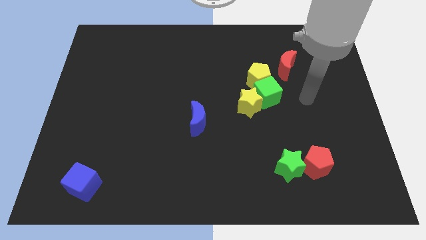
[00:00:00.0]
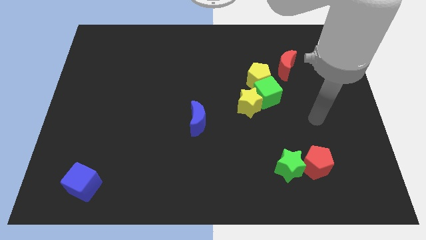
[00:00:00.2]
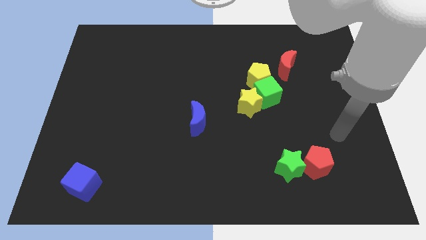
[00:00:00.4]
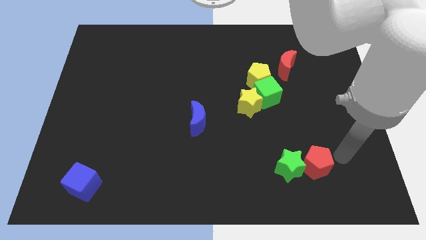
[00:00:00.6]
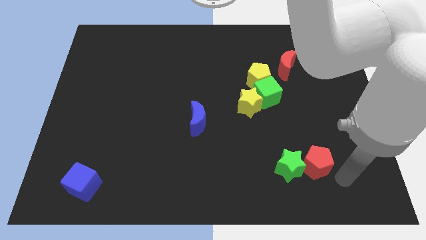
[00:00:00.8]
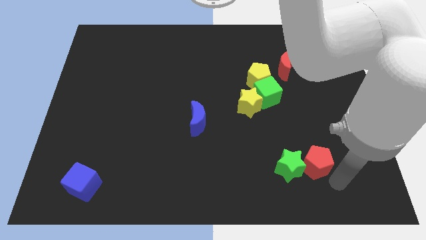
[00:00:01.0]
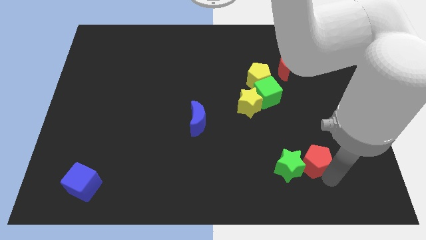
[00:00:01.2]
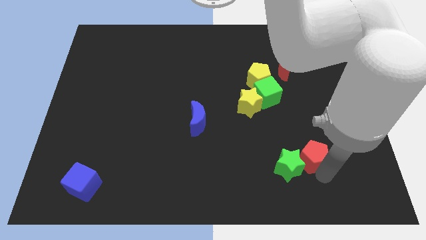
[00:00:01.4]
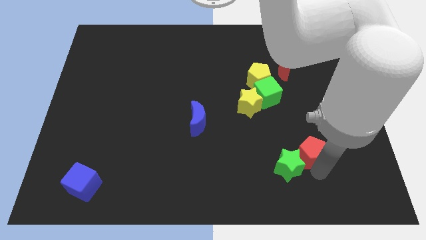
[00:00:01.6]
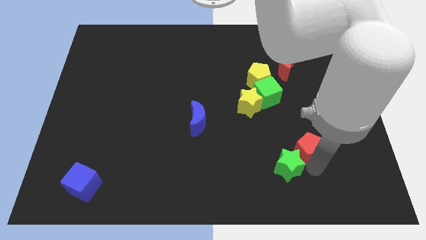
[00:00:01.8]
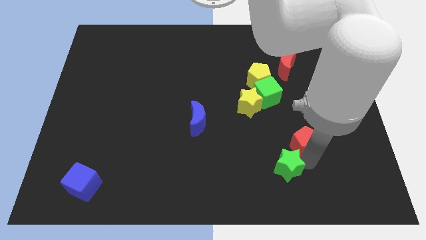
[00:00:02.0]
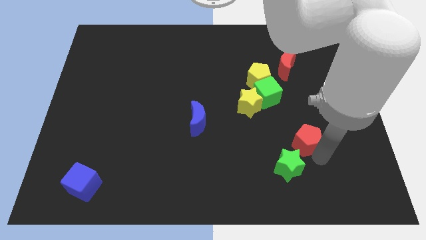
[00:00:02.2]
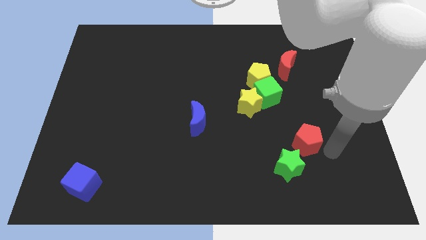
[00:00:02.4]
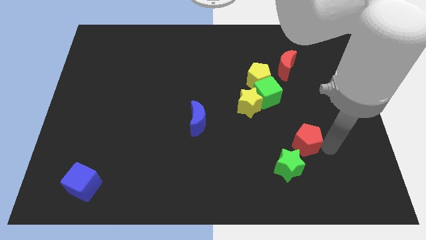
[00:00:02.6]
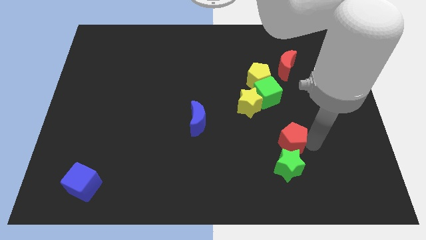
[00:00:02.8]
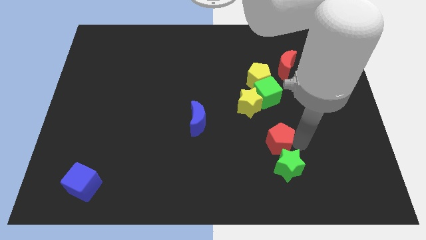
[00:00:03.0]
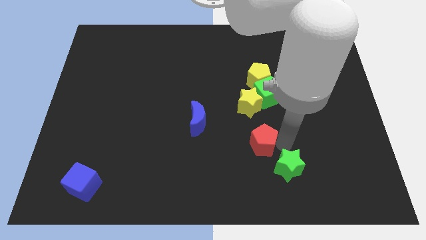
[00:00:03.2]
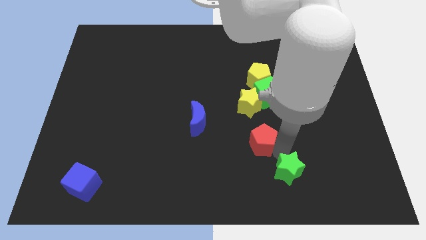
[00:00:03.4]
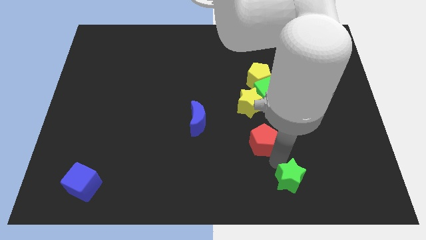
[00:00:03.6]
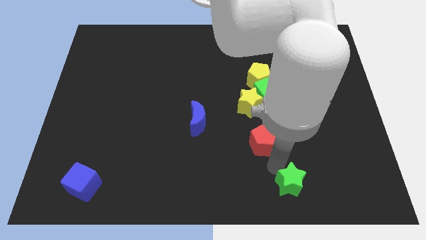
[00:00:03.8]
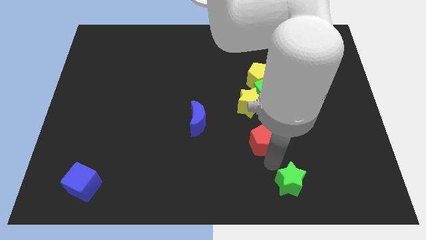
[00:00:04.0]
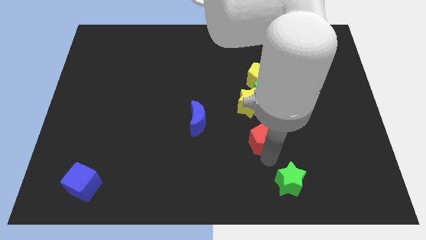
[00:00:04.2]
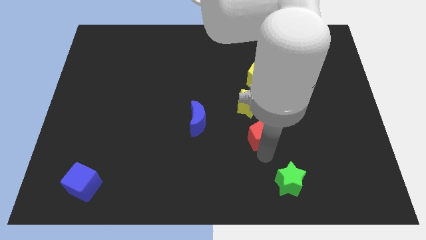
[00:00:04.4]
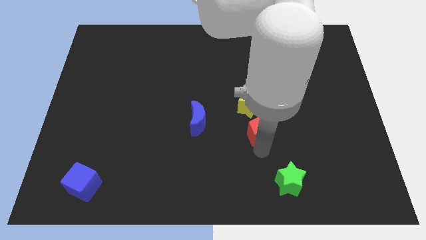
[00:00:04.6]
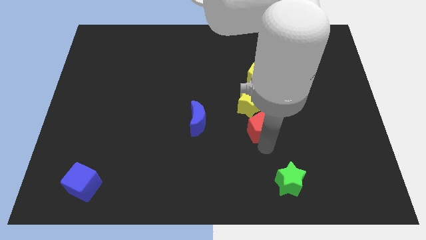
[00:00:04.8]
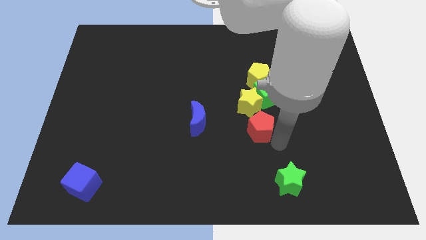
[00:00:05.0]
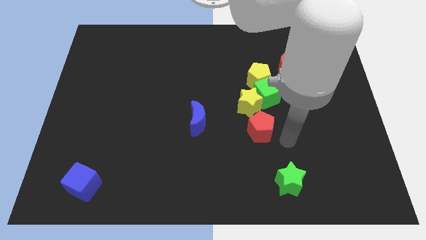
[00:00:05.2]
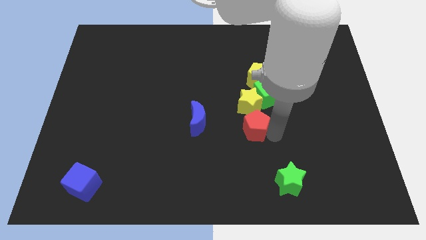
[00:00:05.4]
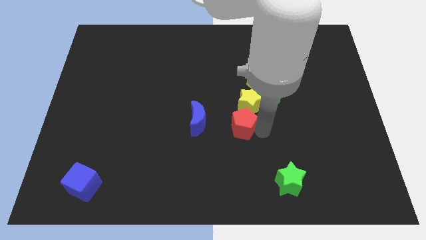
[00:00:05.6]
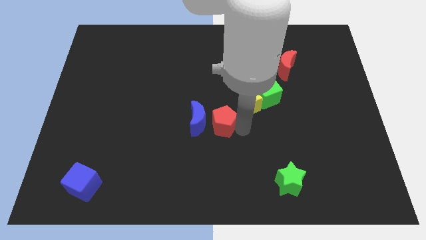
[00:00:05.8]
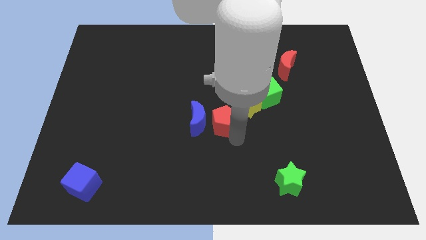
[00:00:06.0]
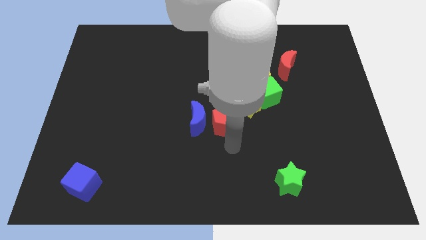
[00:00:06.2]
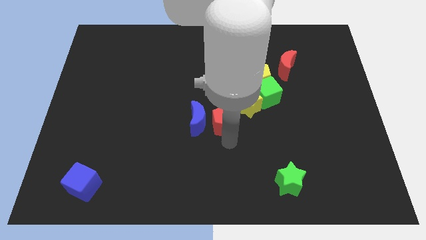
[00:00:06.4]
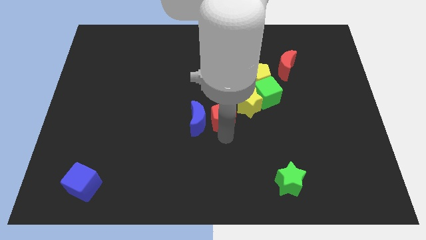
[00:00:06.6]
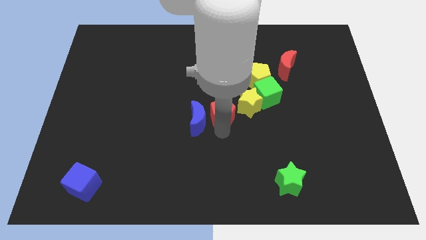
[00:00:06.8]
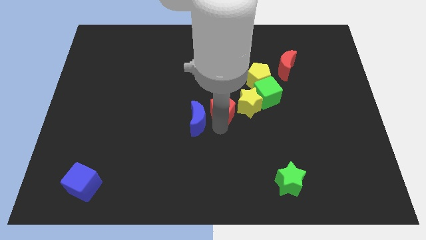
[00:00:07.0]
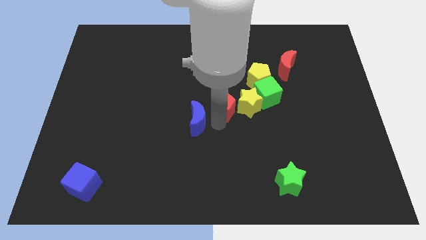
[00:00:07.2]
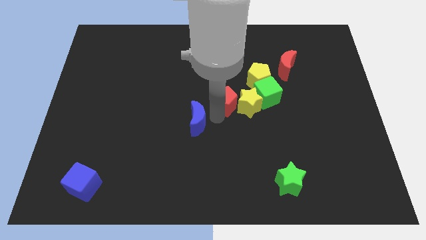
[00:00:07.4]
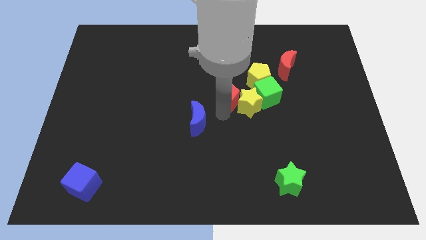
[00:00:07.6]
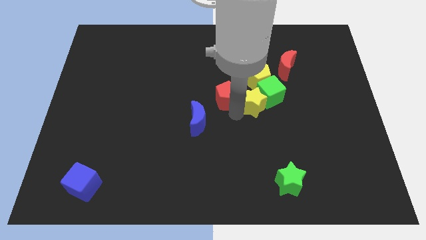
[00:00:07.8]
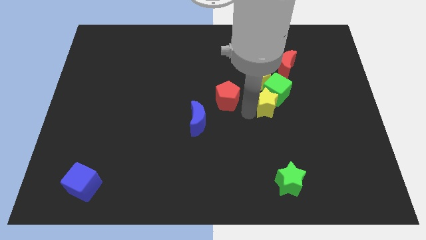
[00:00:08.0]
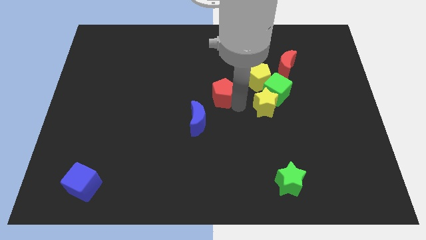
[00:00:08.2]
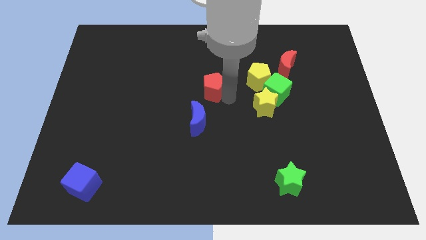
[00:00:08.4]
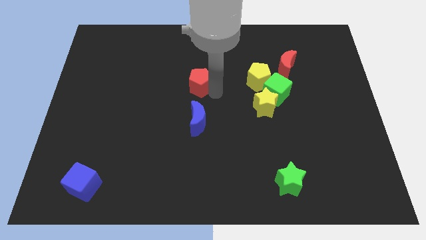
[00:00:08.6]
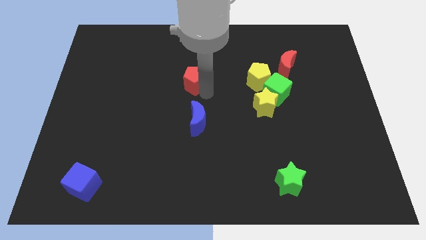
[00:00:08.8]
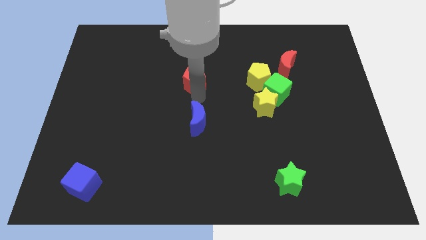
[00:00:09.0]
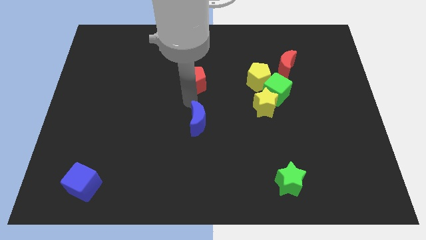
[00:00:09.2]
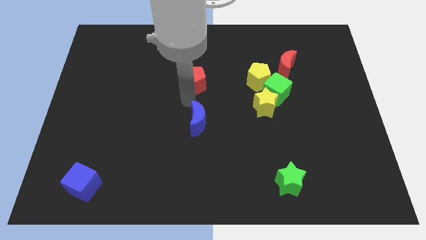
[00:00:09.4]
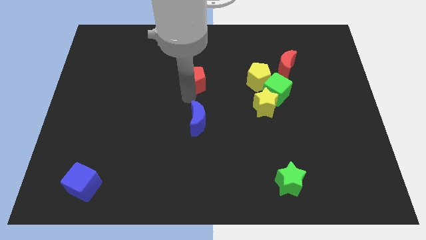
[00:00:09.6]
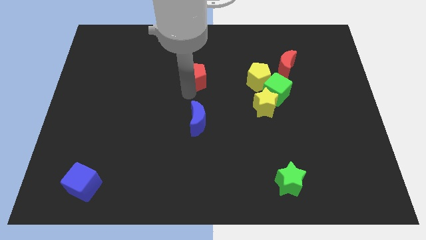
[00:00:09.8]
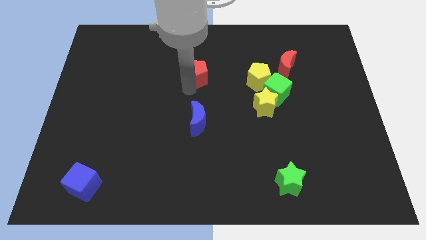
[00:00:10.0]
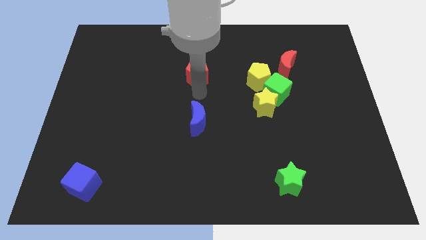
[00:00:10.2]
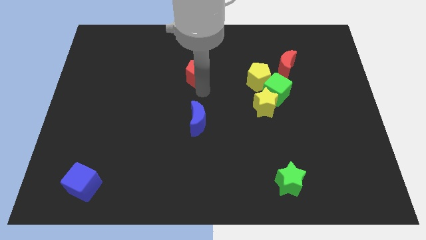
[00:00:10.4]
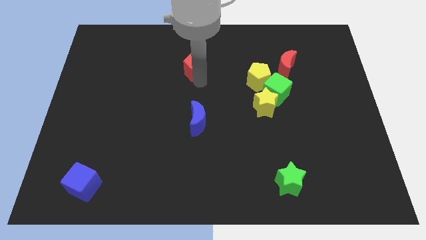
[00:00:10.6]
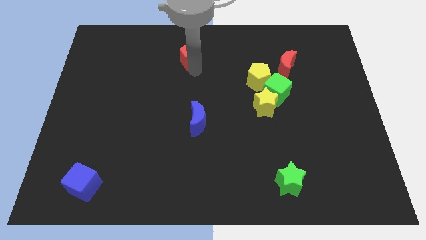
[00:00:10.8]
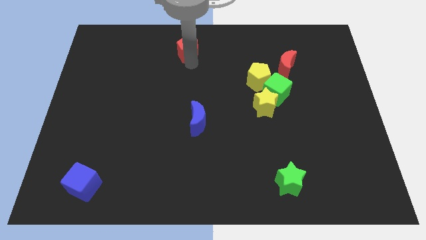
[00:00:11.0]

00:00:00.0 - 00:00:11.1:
slide the red pentagon to the top
